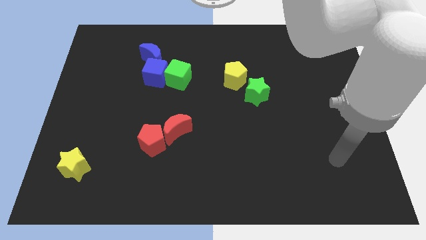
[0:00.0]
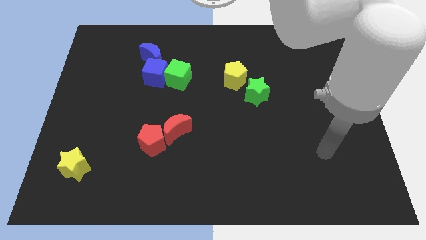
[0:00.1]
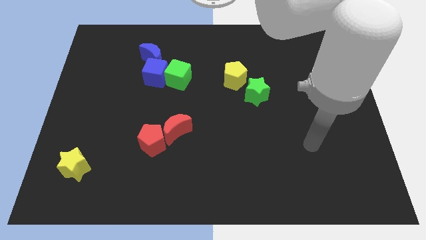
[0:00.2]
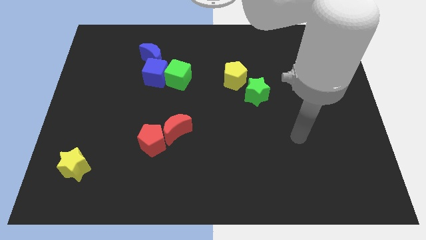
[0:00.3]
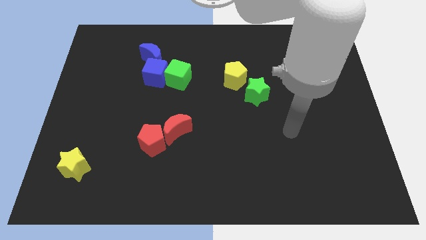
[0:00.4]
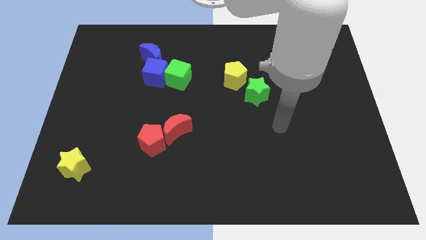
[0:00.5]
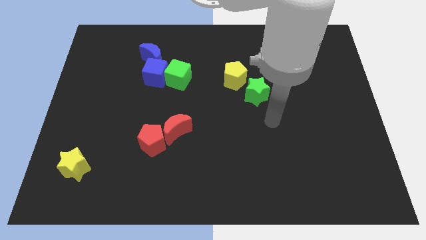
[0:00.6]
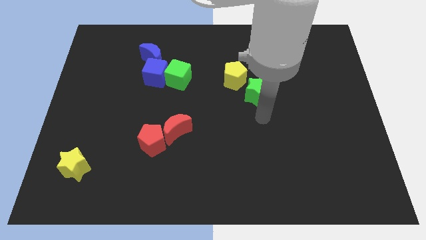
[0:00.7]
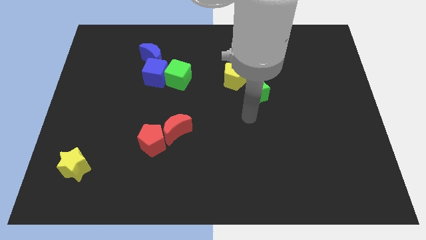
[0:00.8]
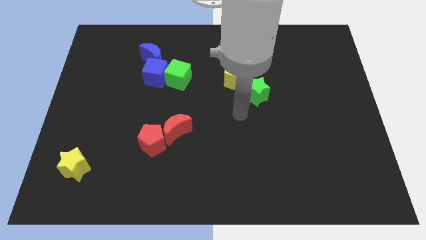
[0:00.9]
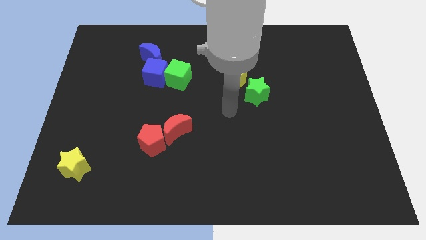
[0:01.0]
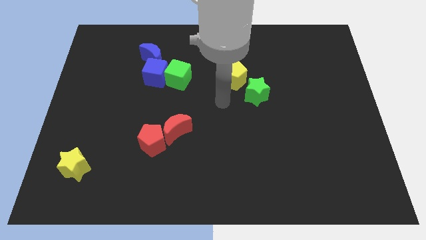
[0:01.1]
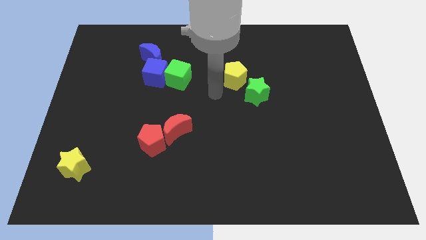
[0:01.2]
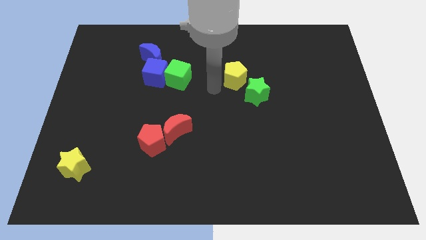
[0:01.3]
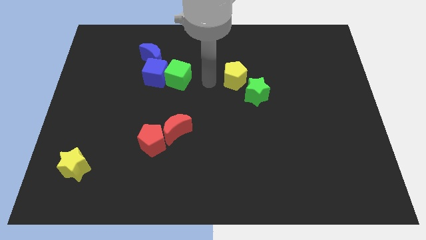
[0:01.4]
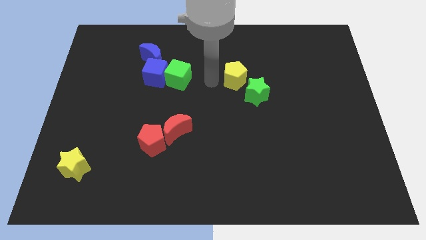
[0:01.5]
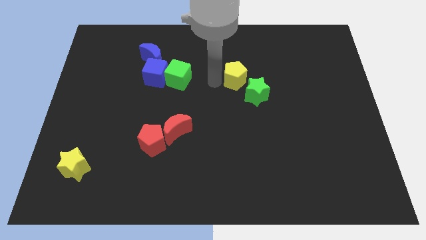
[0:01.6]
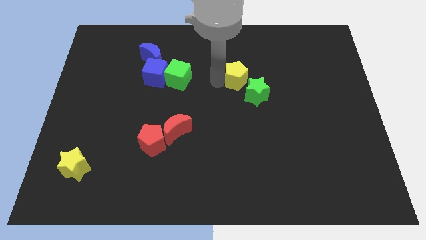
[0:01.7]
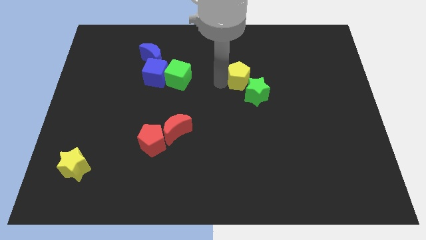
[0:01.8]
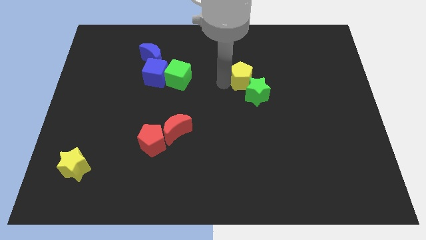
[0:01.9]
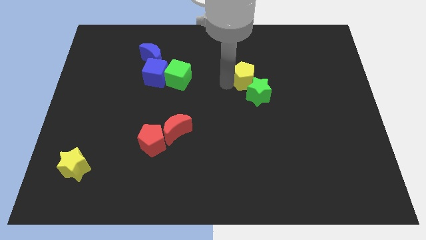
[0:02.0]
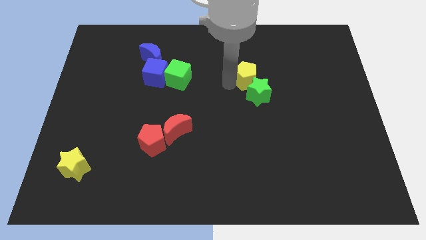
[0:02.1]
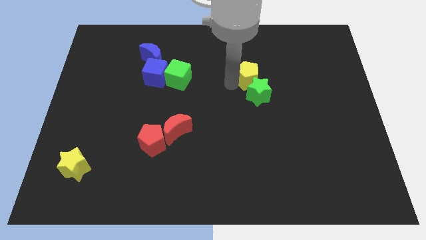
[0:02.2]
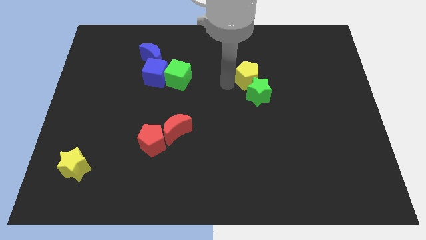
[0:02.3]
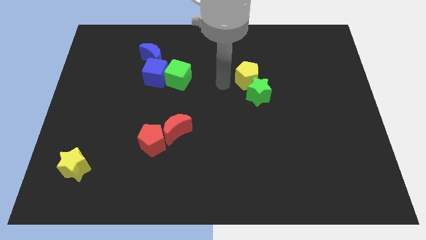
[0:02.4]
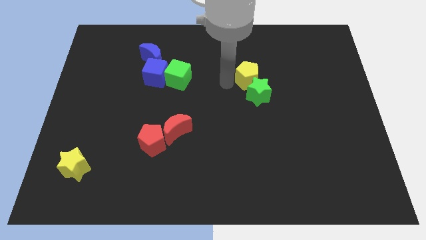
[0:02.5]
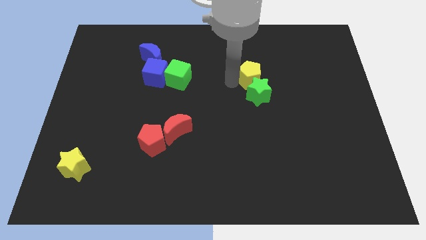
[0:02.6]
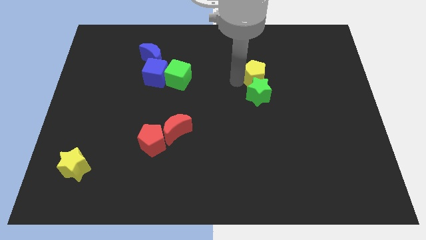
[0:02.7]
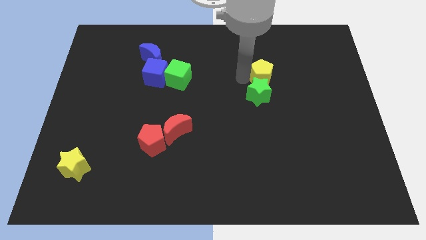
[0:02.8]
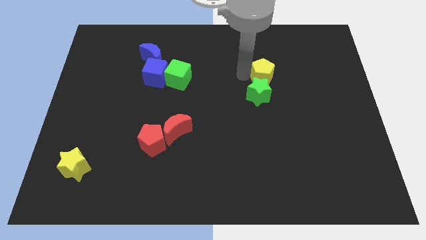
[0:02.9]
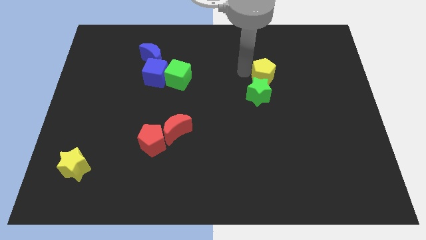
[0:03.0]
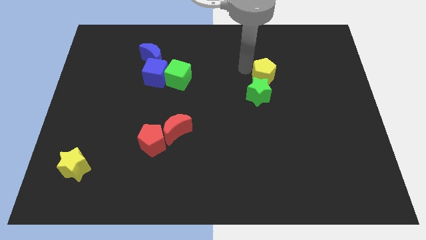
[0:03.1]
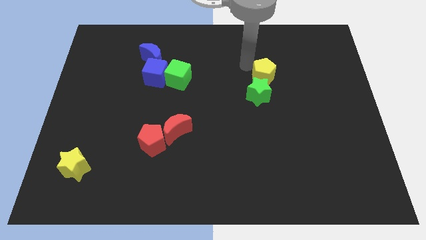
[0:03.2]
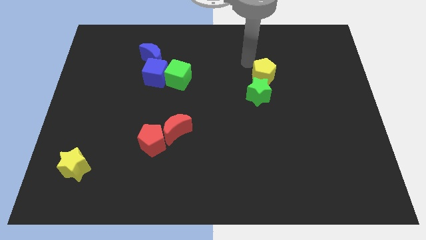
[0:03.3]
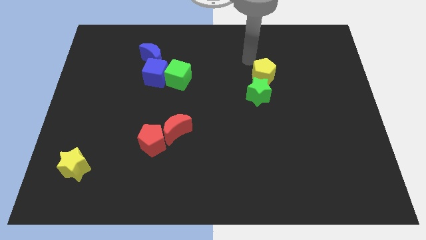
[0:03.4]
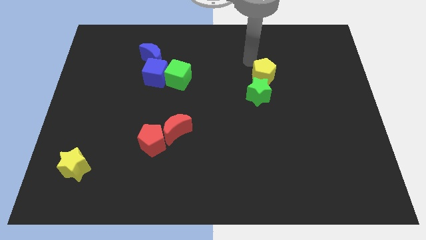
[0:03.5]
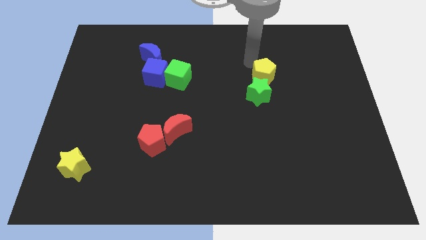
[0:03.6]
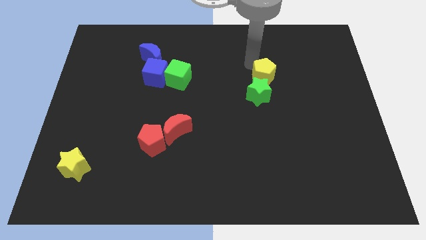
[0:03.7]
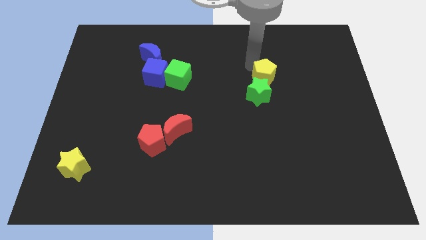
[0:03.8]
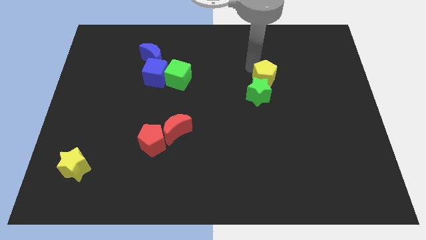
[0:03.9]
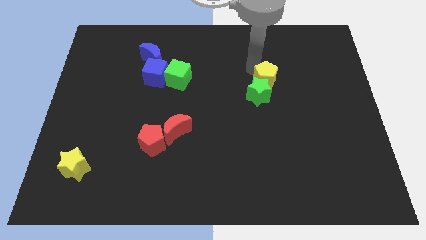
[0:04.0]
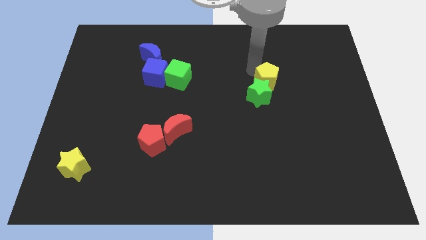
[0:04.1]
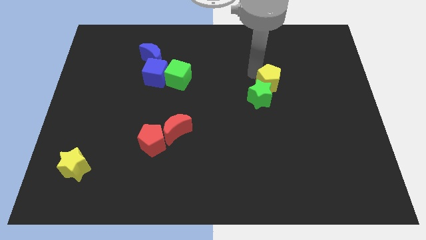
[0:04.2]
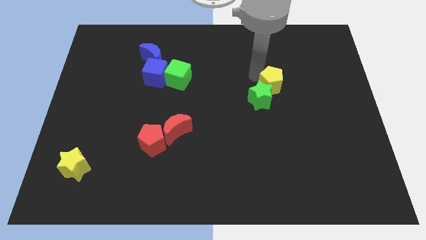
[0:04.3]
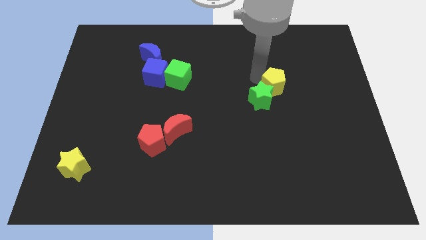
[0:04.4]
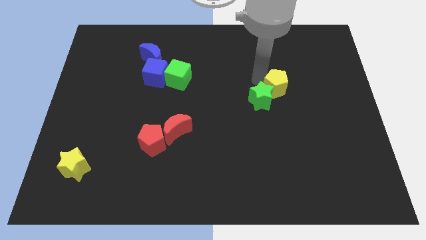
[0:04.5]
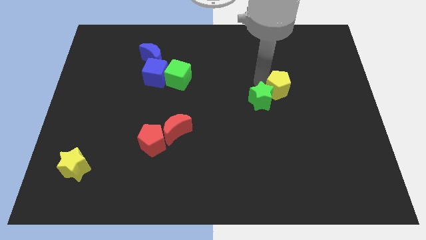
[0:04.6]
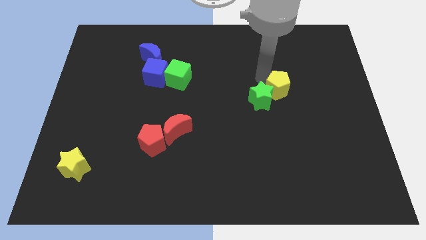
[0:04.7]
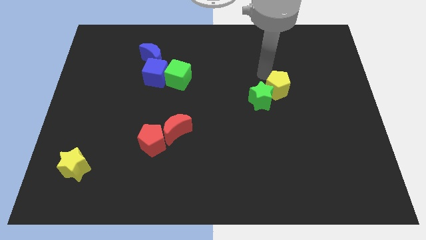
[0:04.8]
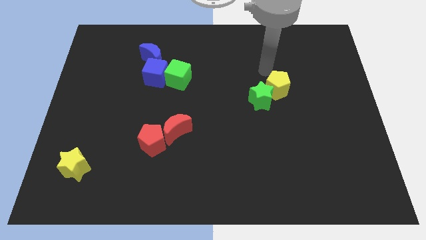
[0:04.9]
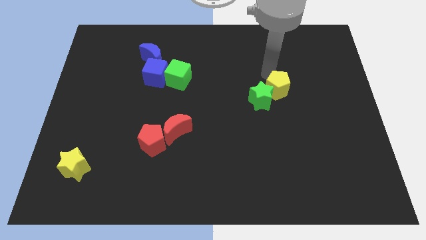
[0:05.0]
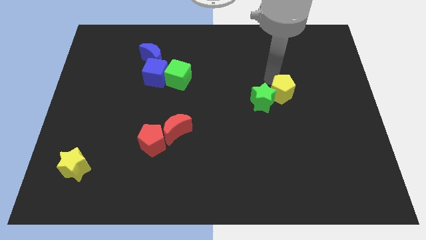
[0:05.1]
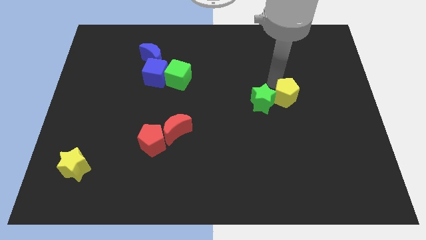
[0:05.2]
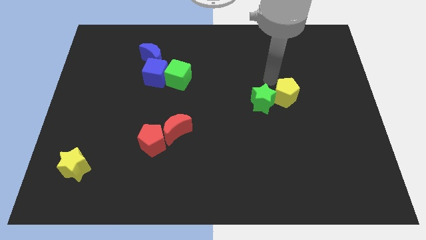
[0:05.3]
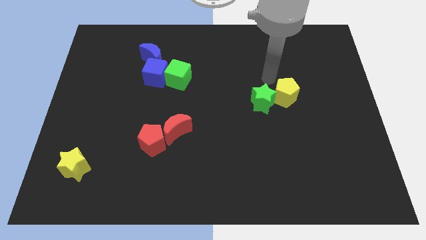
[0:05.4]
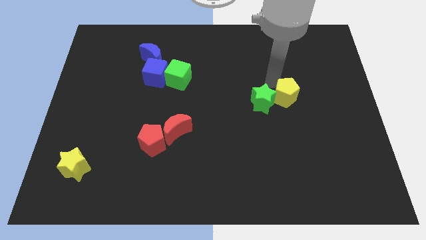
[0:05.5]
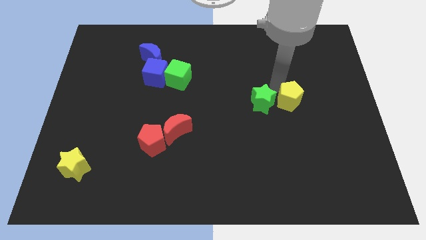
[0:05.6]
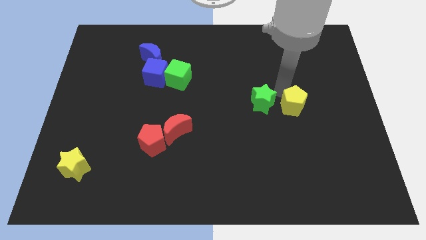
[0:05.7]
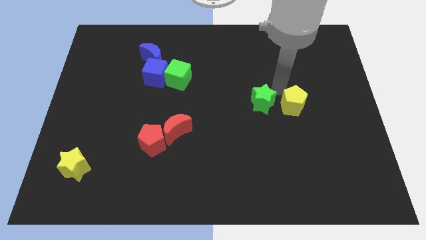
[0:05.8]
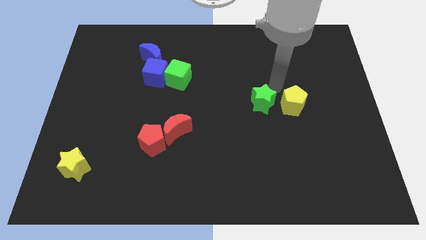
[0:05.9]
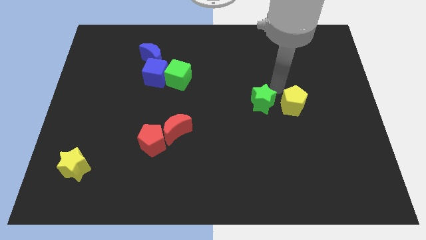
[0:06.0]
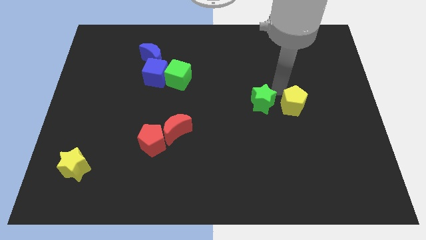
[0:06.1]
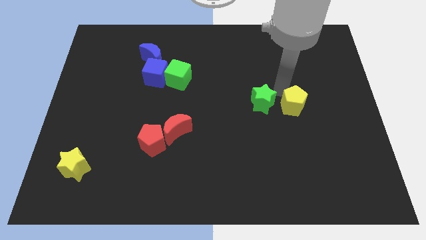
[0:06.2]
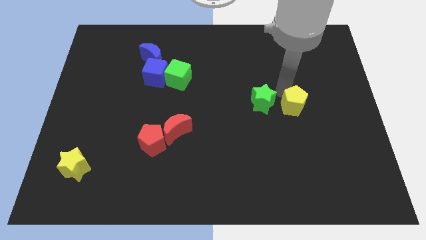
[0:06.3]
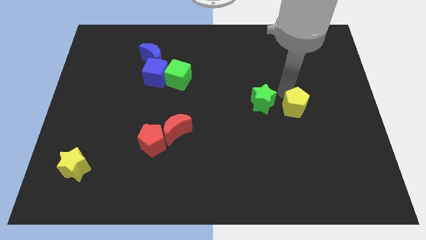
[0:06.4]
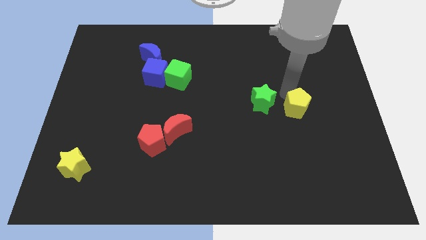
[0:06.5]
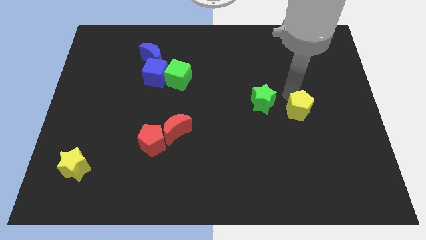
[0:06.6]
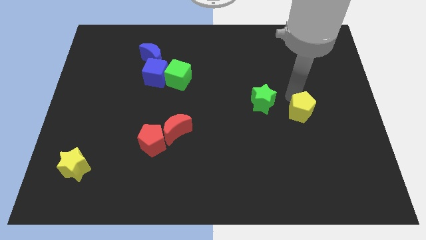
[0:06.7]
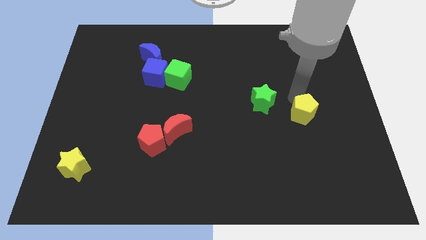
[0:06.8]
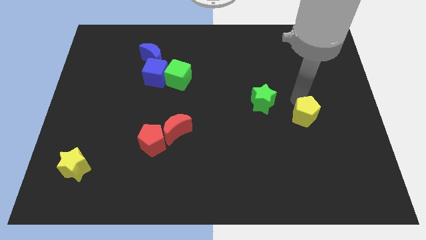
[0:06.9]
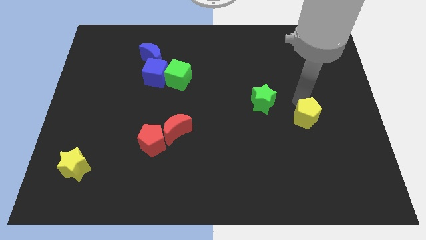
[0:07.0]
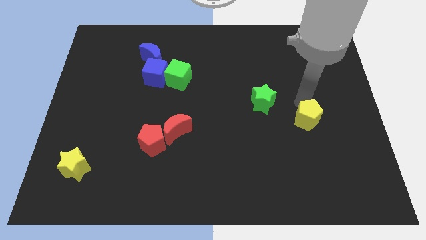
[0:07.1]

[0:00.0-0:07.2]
push the yellow pentagon down and to the right

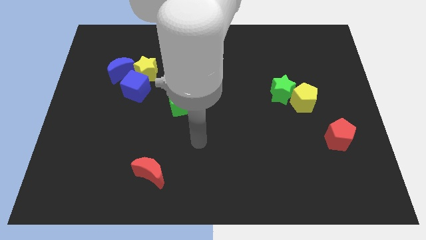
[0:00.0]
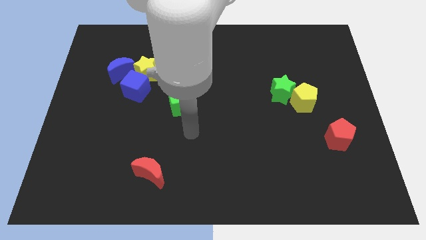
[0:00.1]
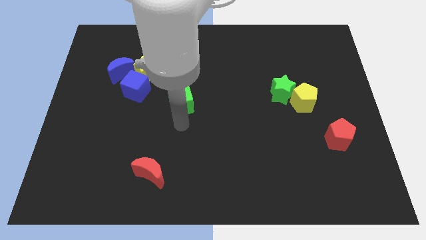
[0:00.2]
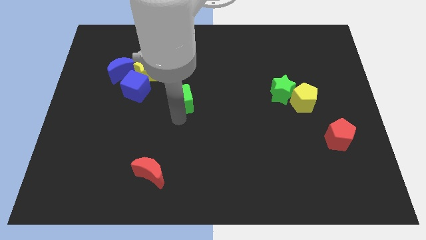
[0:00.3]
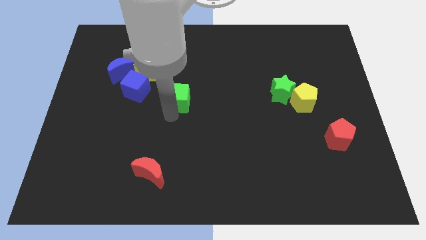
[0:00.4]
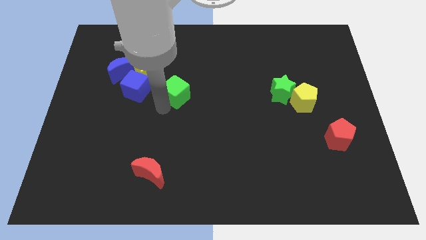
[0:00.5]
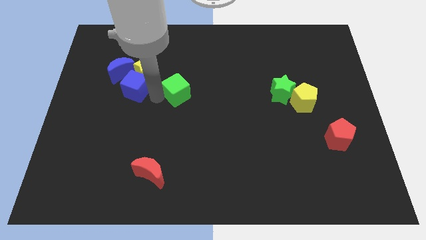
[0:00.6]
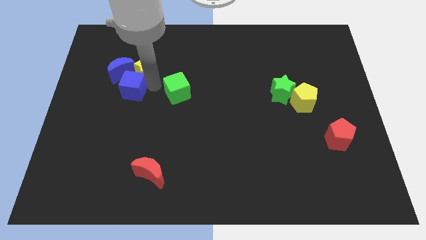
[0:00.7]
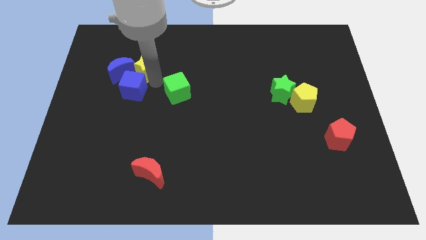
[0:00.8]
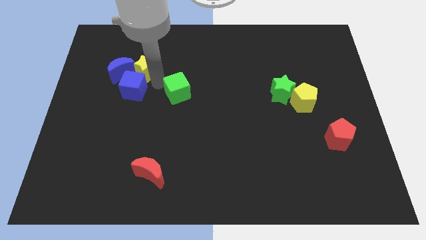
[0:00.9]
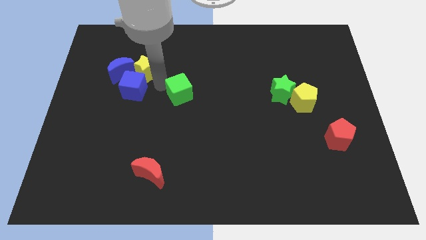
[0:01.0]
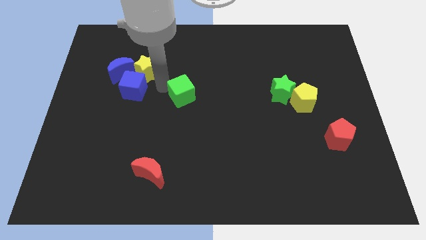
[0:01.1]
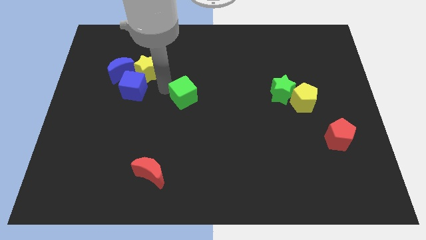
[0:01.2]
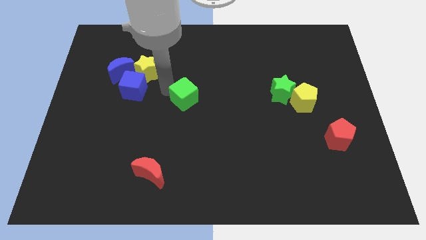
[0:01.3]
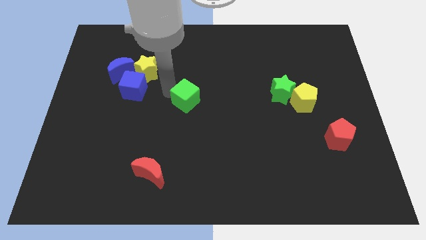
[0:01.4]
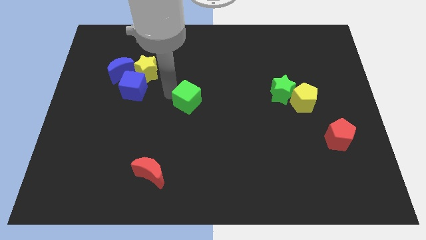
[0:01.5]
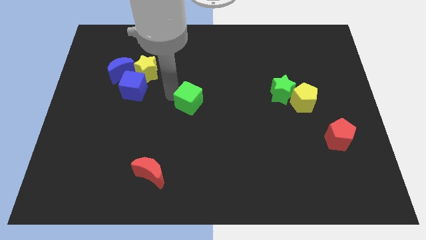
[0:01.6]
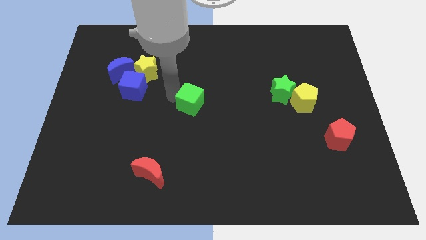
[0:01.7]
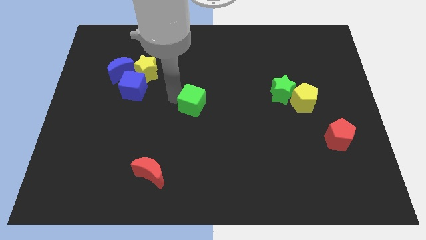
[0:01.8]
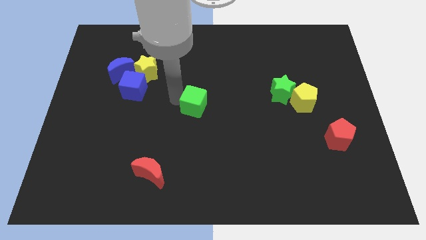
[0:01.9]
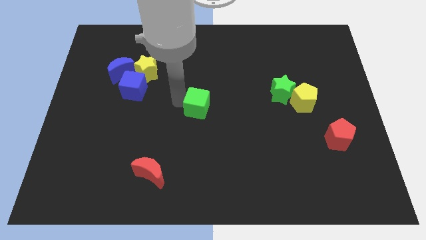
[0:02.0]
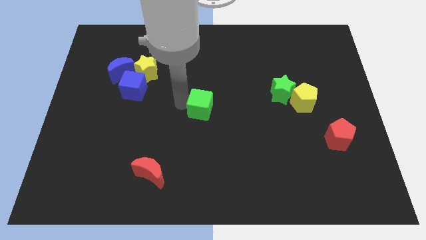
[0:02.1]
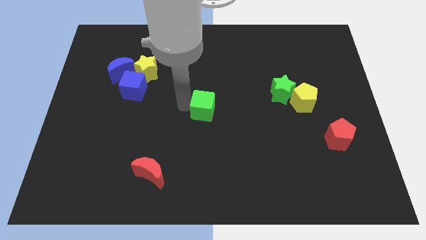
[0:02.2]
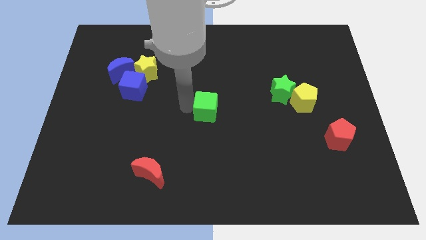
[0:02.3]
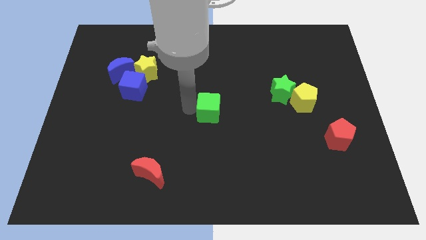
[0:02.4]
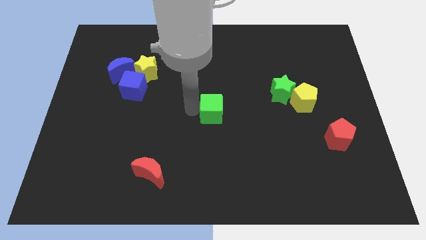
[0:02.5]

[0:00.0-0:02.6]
slide the green cube a little to the right
